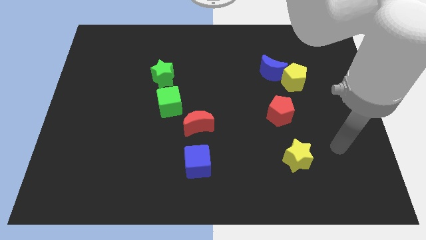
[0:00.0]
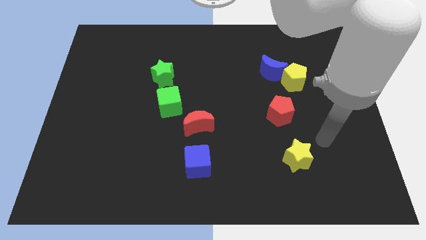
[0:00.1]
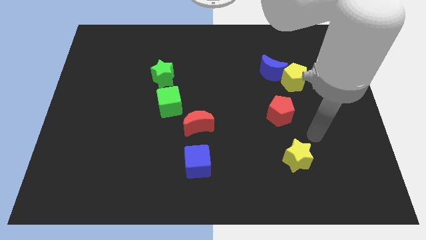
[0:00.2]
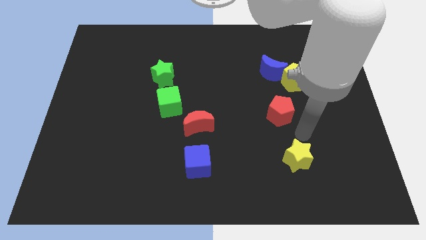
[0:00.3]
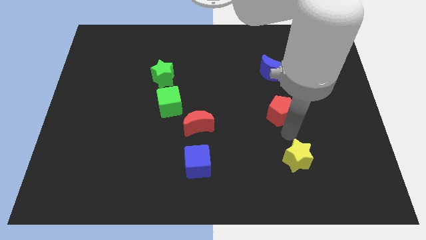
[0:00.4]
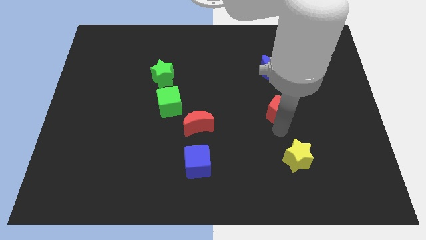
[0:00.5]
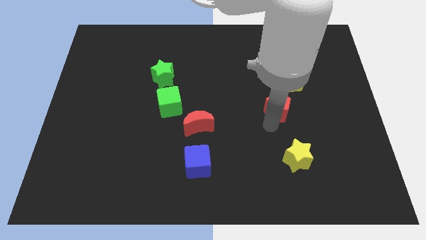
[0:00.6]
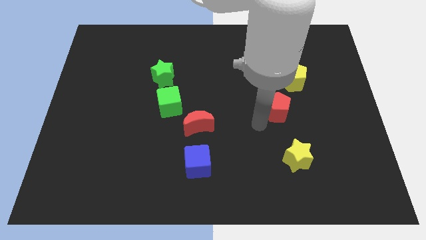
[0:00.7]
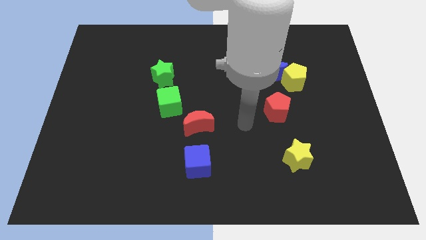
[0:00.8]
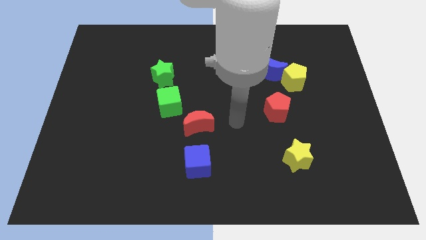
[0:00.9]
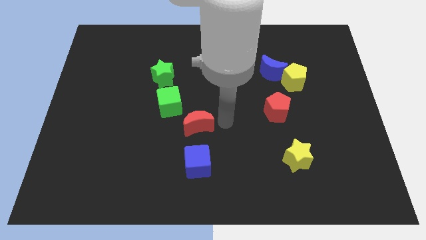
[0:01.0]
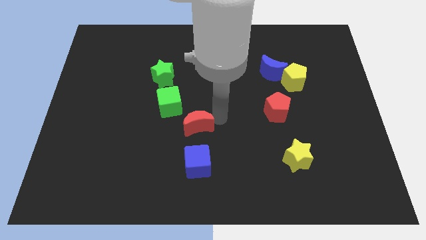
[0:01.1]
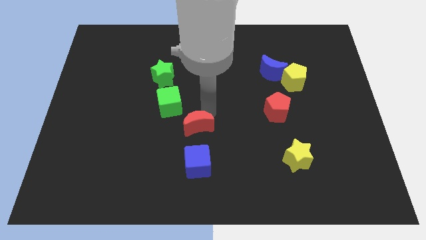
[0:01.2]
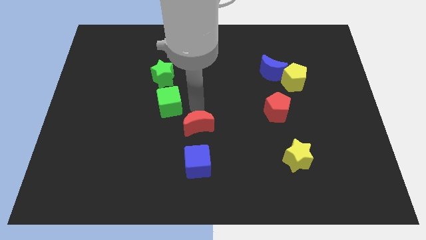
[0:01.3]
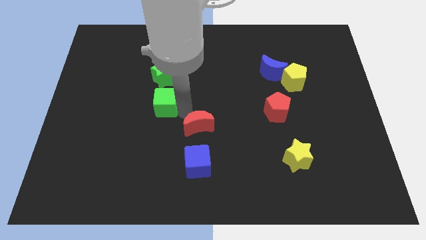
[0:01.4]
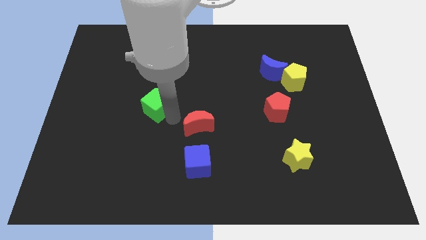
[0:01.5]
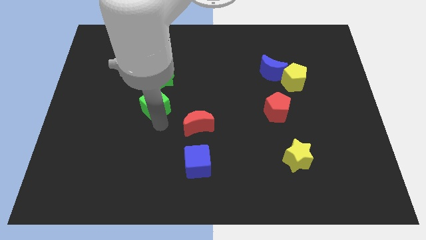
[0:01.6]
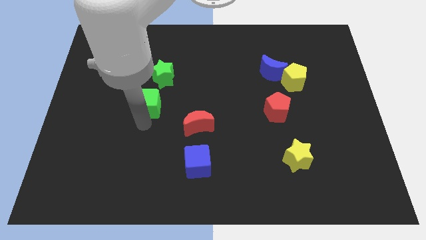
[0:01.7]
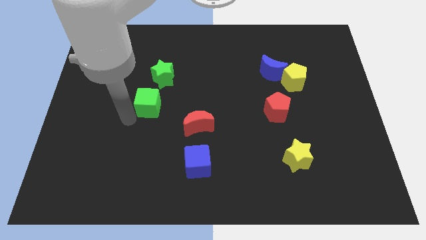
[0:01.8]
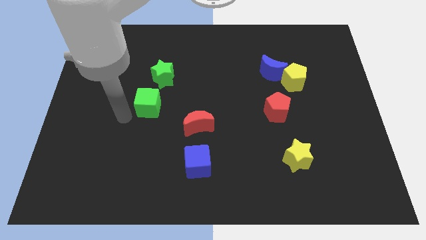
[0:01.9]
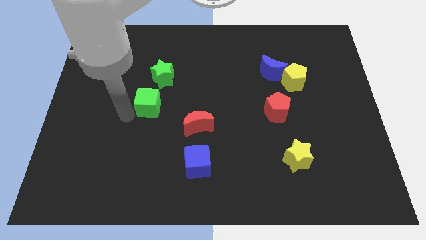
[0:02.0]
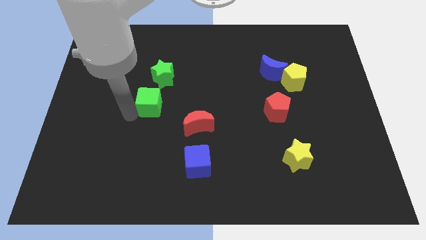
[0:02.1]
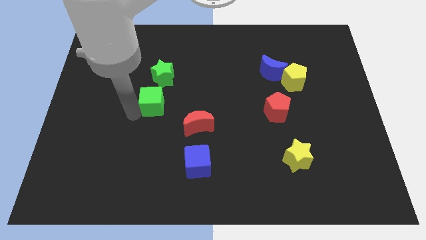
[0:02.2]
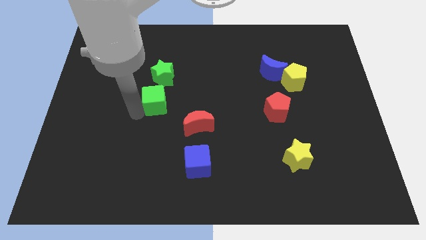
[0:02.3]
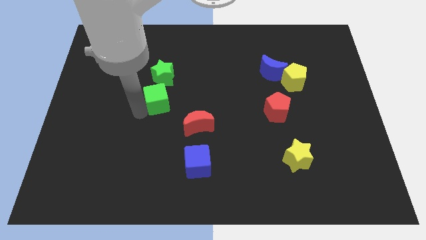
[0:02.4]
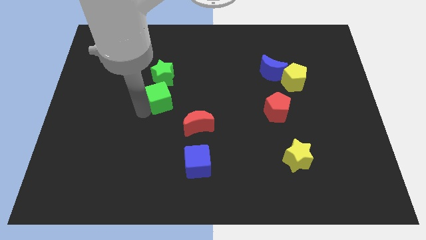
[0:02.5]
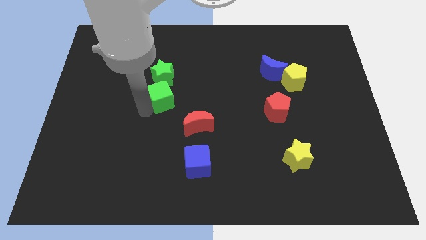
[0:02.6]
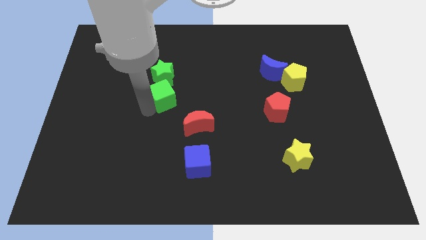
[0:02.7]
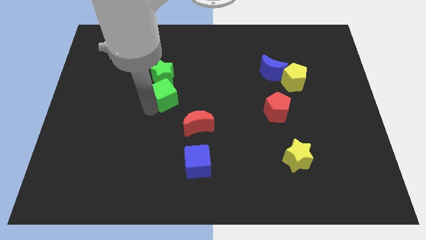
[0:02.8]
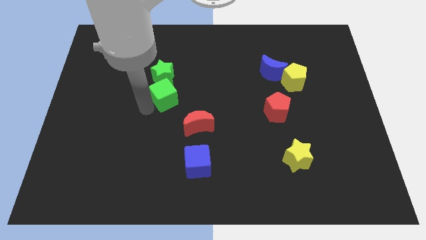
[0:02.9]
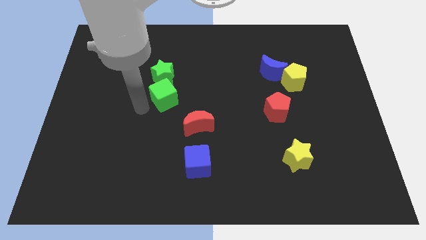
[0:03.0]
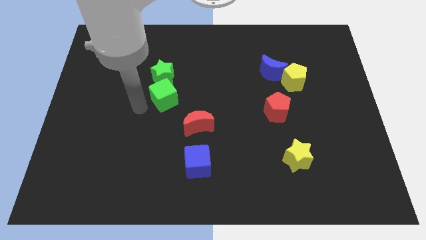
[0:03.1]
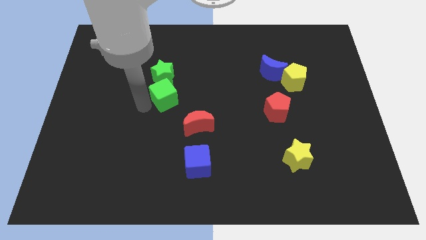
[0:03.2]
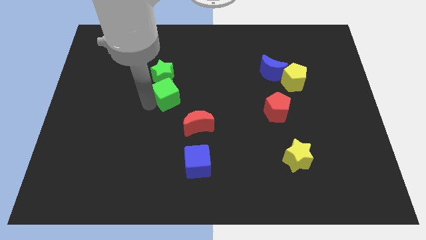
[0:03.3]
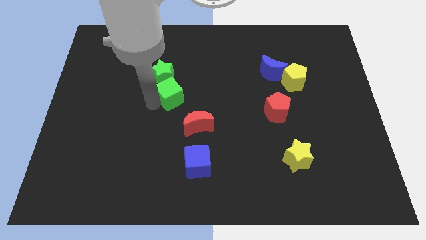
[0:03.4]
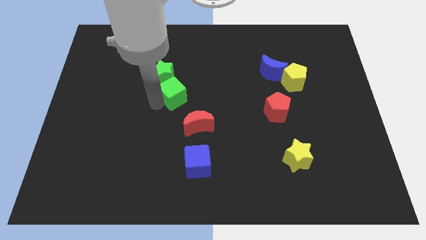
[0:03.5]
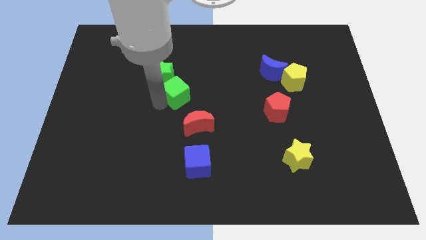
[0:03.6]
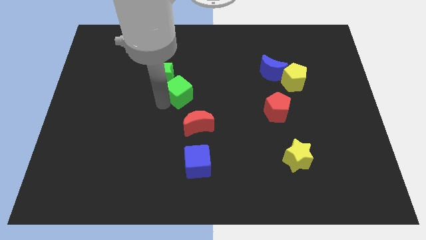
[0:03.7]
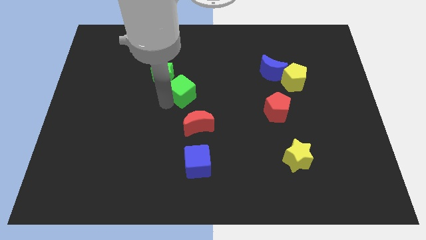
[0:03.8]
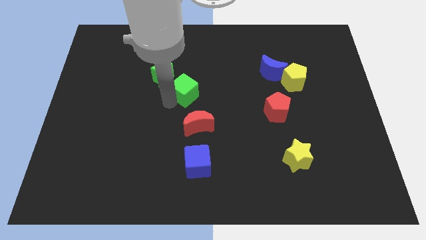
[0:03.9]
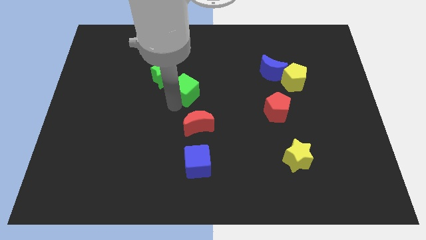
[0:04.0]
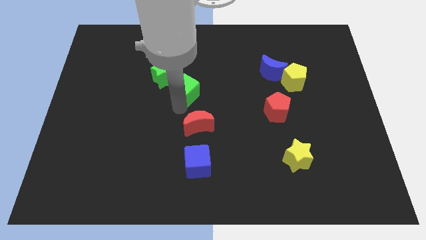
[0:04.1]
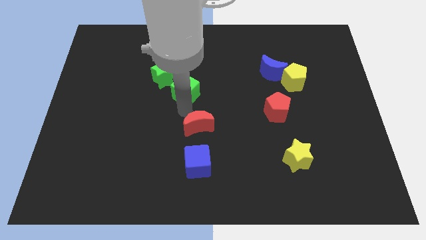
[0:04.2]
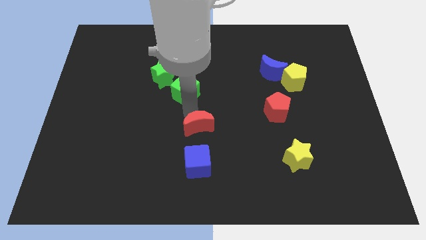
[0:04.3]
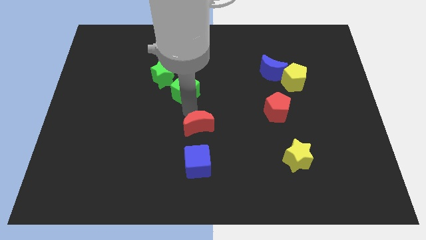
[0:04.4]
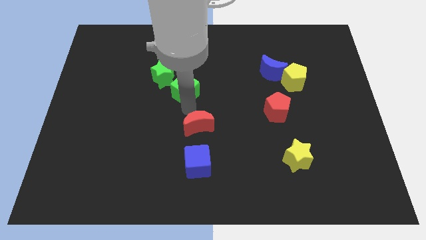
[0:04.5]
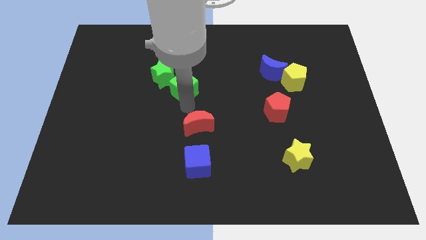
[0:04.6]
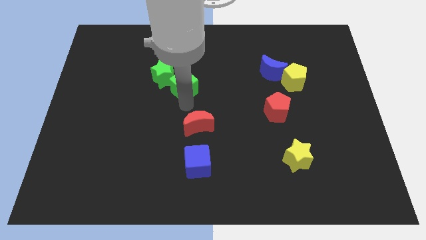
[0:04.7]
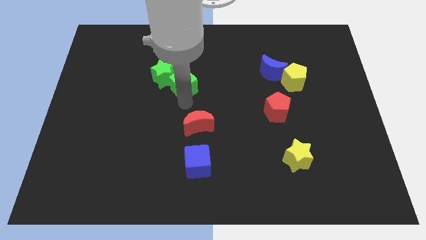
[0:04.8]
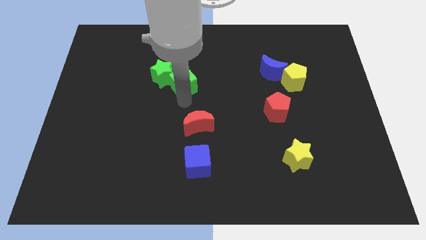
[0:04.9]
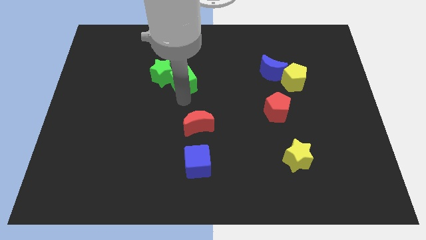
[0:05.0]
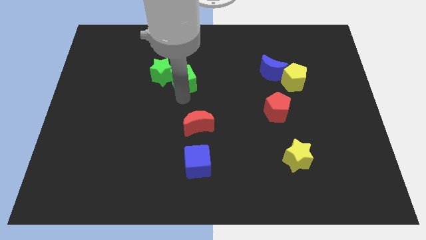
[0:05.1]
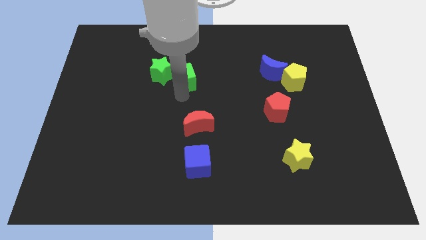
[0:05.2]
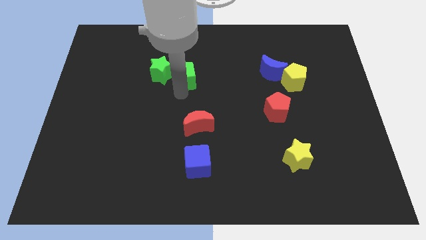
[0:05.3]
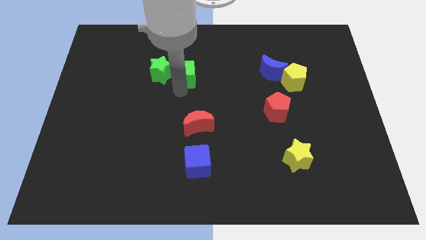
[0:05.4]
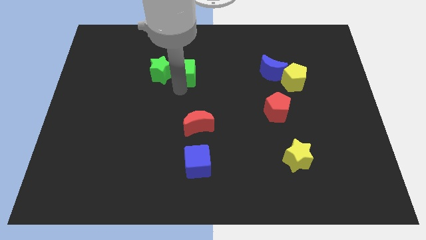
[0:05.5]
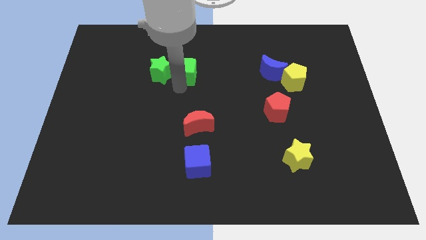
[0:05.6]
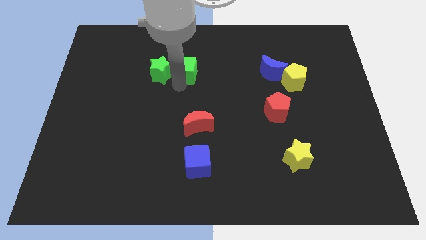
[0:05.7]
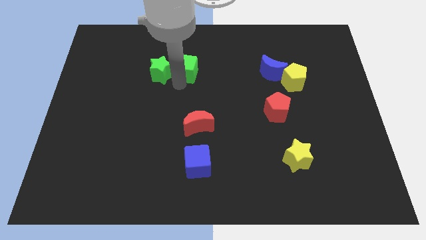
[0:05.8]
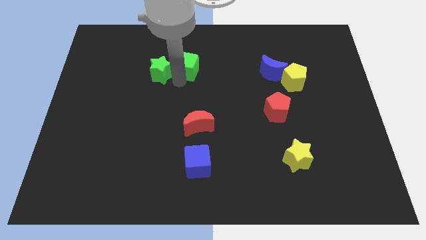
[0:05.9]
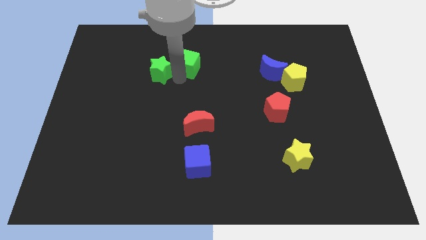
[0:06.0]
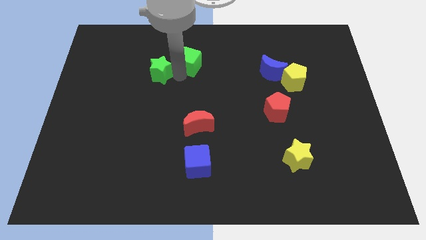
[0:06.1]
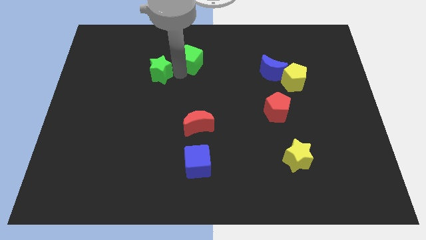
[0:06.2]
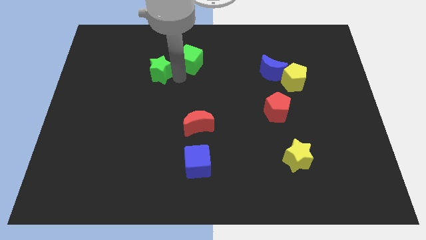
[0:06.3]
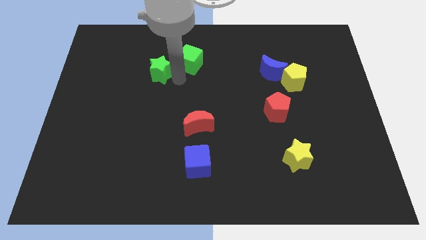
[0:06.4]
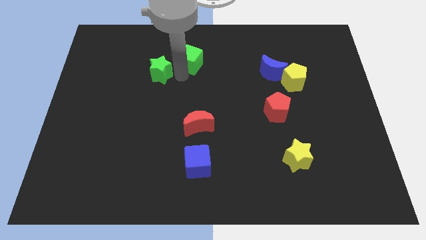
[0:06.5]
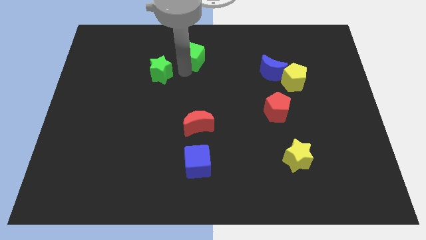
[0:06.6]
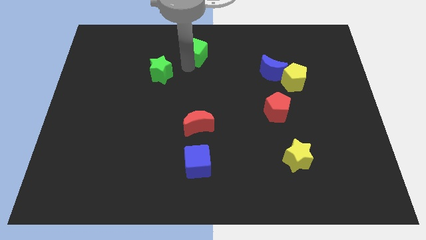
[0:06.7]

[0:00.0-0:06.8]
put the green cube to the top
